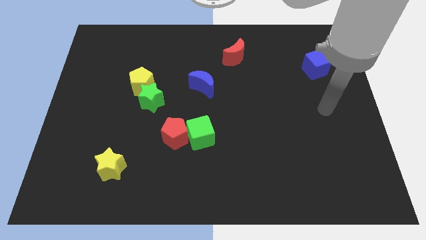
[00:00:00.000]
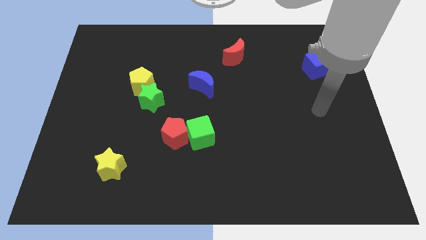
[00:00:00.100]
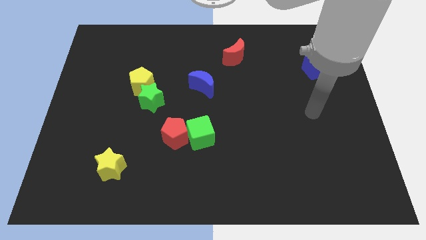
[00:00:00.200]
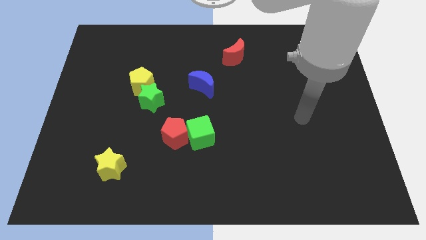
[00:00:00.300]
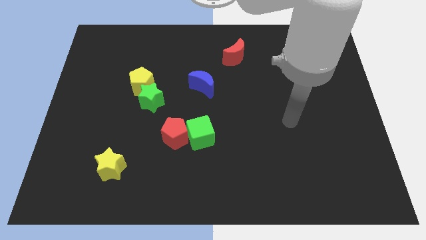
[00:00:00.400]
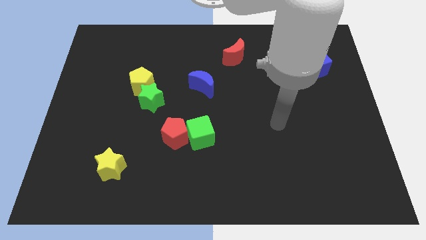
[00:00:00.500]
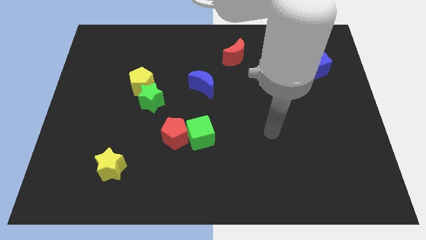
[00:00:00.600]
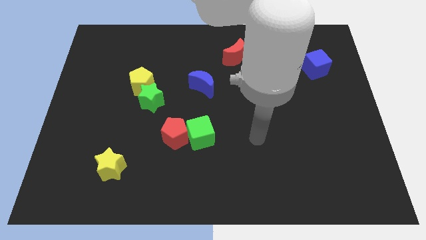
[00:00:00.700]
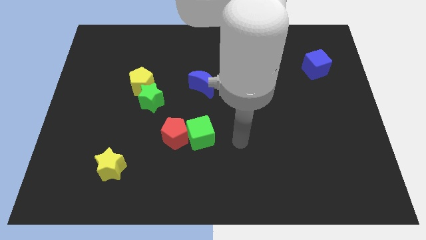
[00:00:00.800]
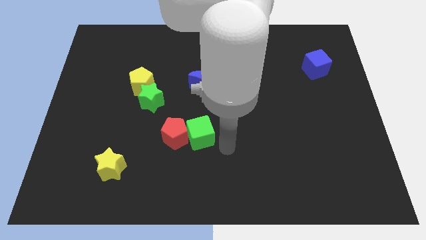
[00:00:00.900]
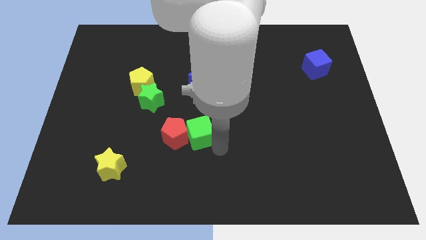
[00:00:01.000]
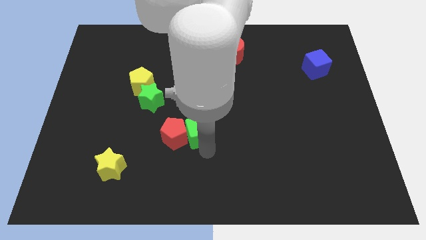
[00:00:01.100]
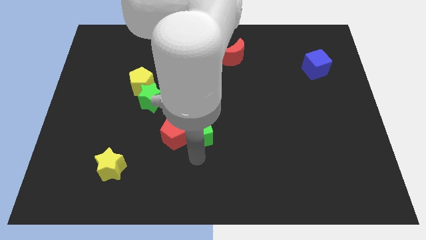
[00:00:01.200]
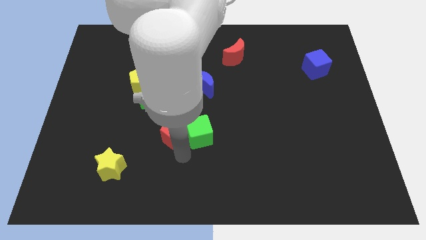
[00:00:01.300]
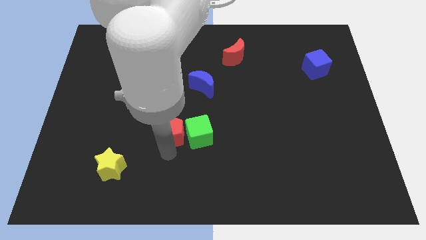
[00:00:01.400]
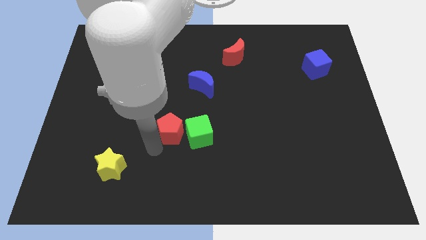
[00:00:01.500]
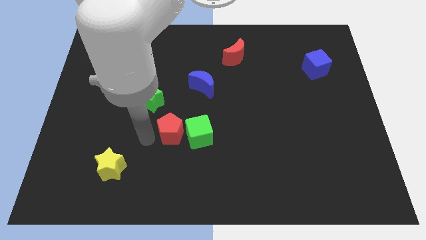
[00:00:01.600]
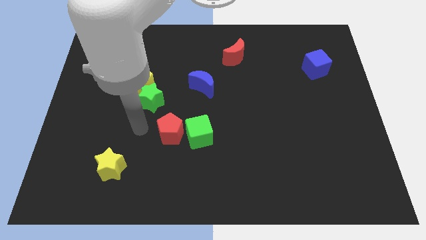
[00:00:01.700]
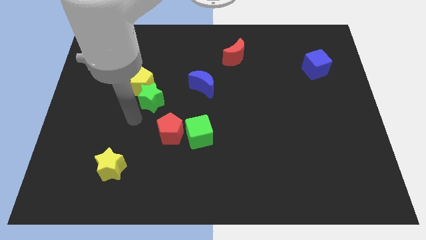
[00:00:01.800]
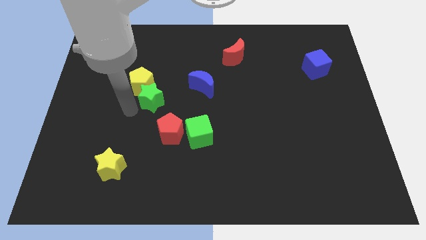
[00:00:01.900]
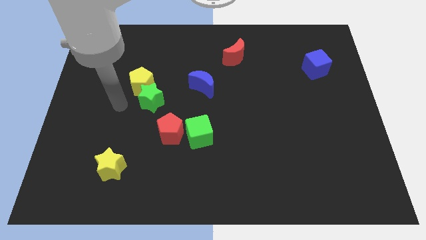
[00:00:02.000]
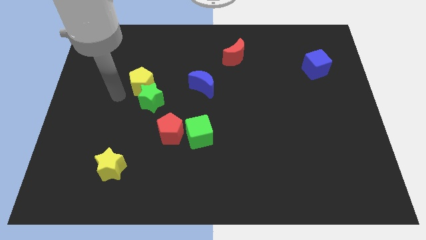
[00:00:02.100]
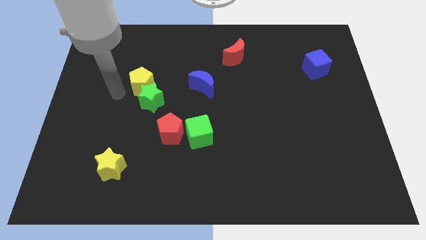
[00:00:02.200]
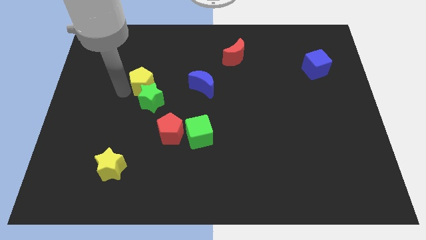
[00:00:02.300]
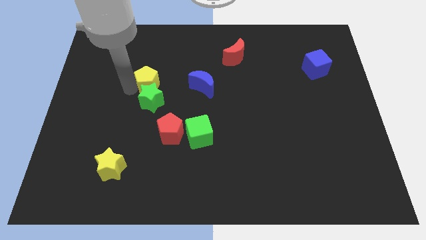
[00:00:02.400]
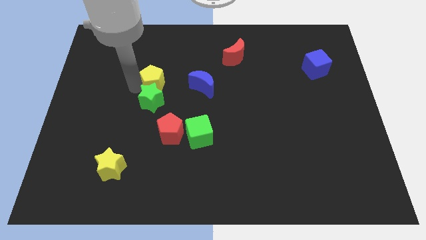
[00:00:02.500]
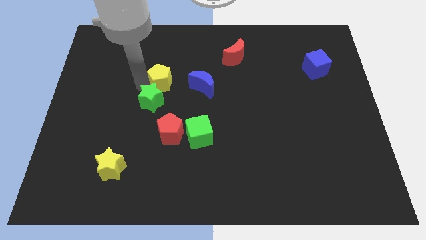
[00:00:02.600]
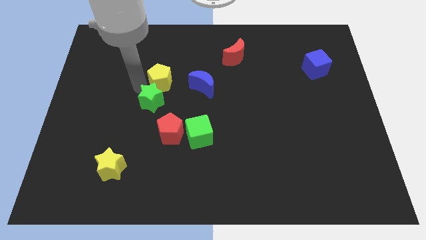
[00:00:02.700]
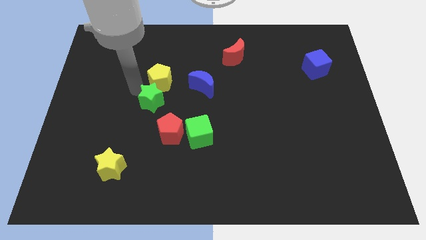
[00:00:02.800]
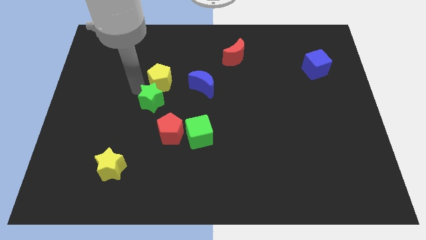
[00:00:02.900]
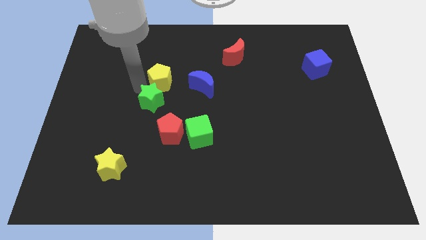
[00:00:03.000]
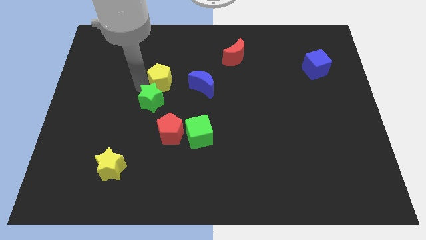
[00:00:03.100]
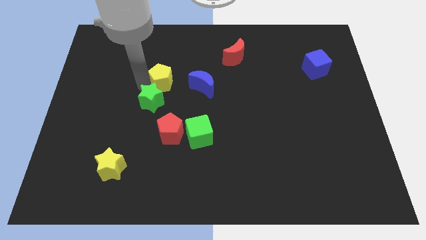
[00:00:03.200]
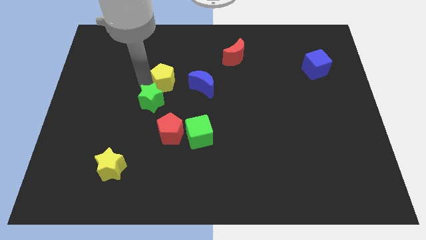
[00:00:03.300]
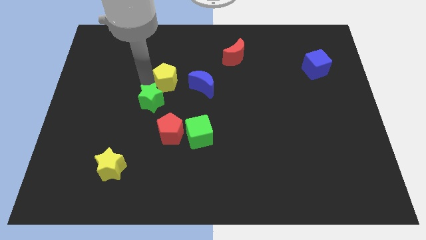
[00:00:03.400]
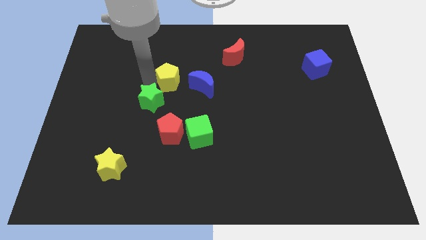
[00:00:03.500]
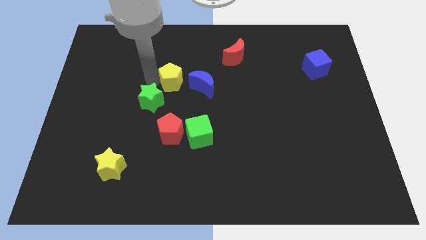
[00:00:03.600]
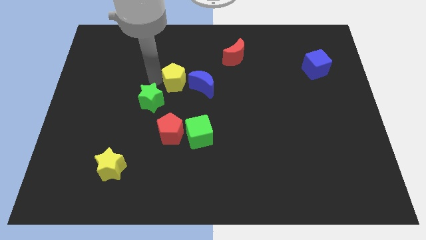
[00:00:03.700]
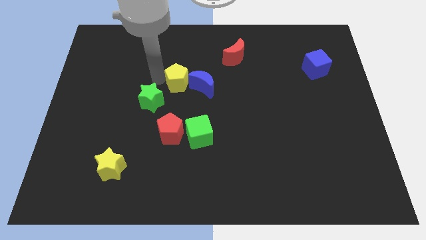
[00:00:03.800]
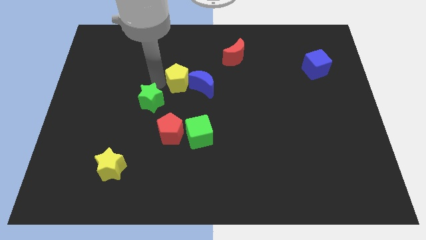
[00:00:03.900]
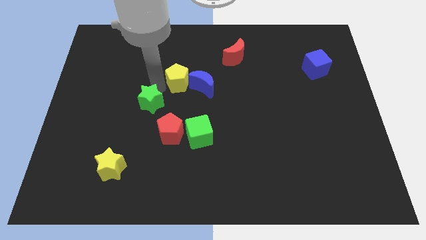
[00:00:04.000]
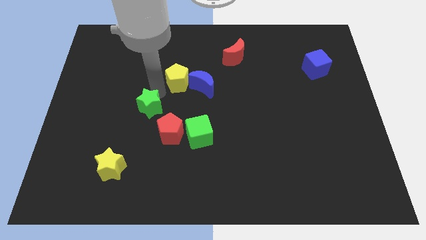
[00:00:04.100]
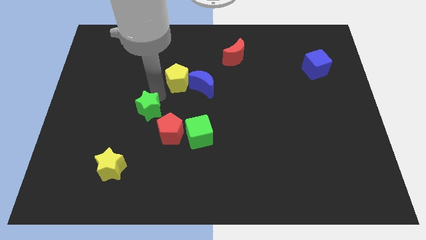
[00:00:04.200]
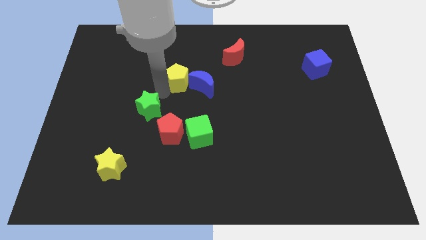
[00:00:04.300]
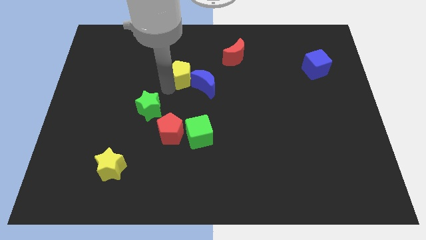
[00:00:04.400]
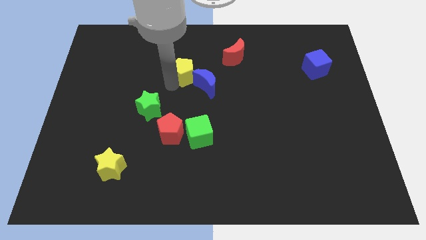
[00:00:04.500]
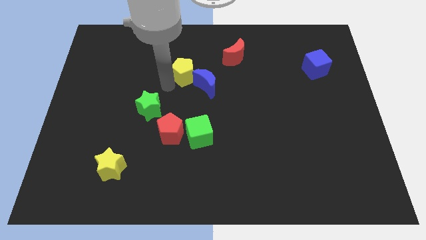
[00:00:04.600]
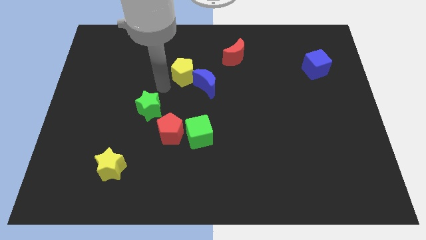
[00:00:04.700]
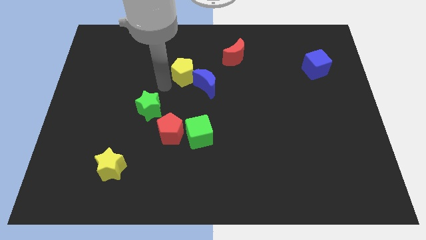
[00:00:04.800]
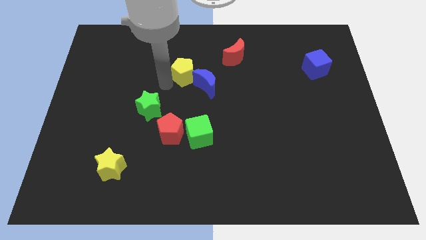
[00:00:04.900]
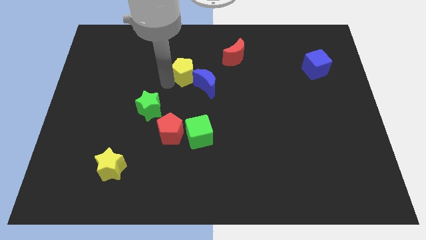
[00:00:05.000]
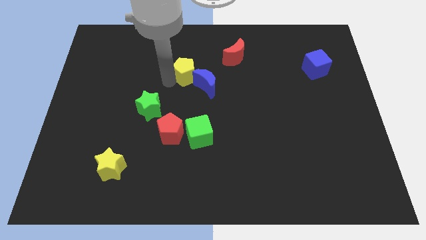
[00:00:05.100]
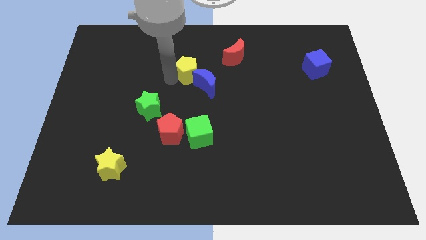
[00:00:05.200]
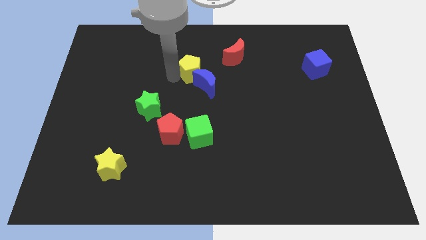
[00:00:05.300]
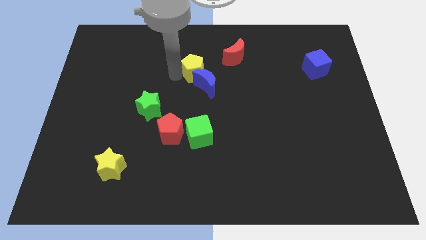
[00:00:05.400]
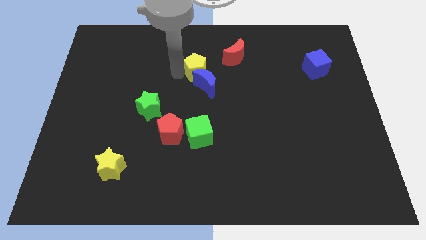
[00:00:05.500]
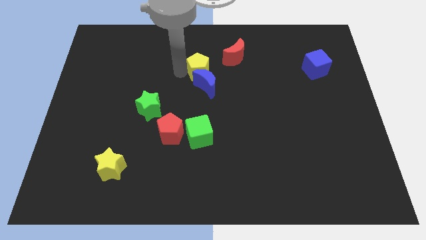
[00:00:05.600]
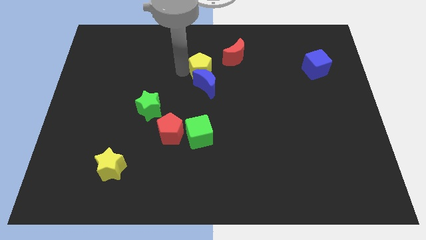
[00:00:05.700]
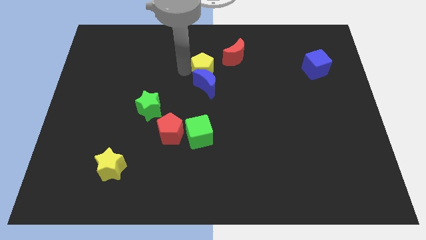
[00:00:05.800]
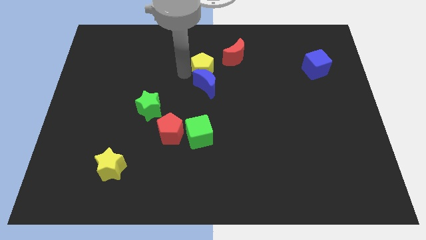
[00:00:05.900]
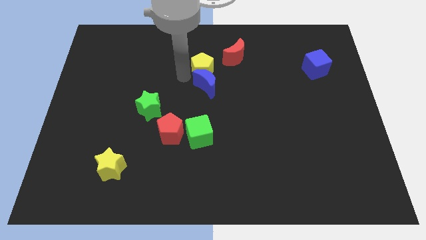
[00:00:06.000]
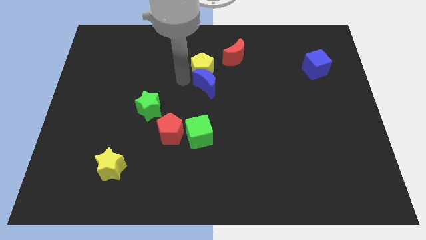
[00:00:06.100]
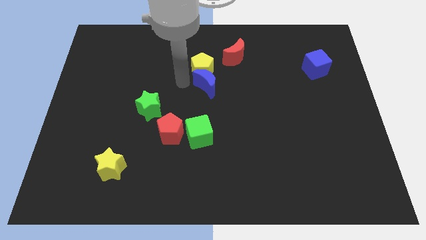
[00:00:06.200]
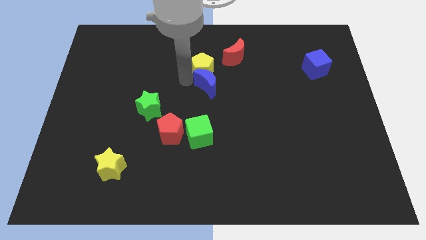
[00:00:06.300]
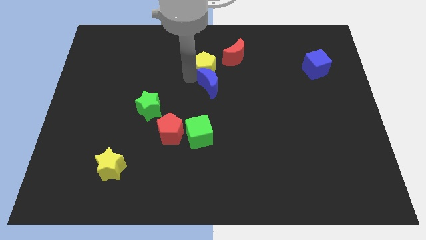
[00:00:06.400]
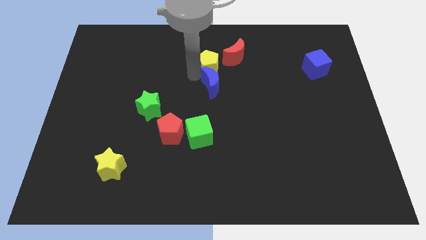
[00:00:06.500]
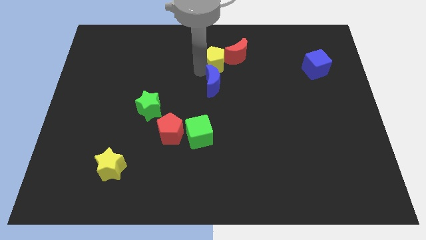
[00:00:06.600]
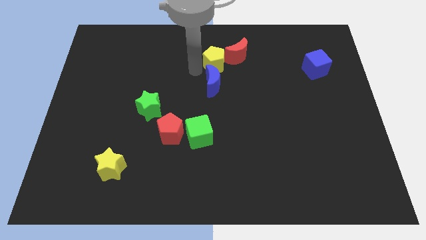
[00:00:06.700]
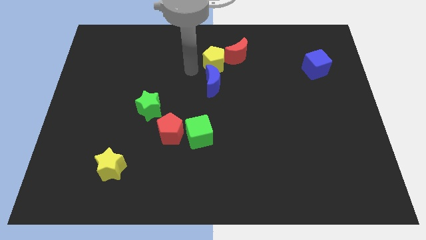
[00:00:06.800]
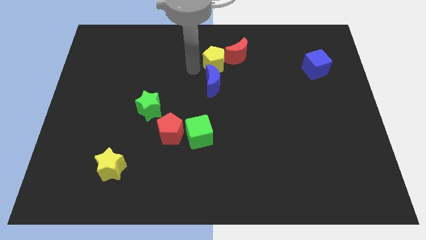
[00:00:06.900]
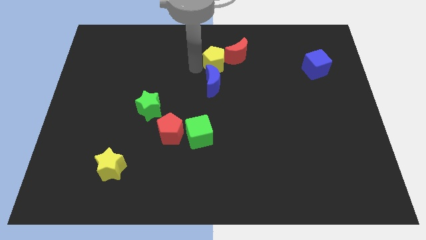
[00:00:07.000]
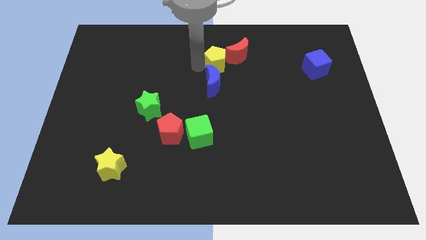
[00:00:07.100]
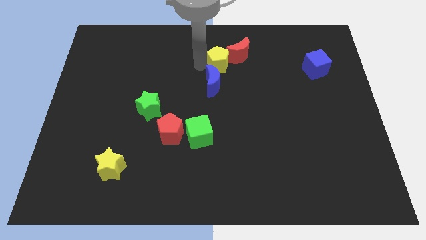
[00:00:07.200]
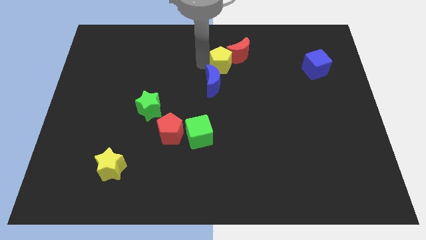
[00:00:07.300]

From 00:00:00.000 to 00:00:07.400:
push the yellow pentagon next to the red moon
